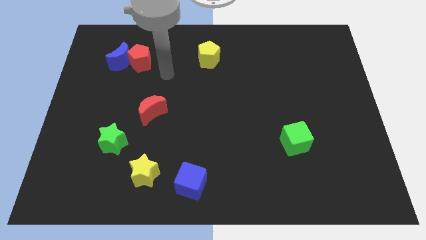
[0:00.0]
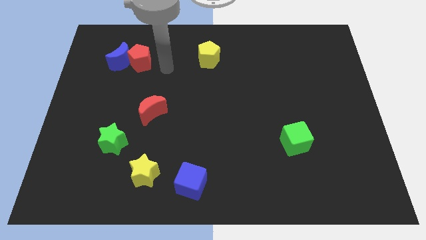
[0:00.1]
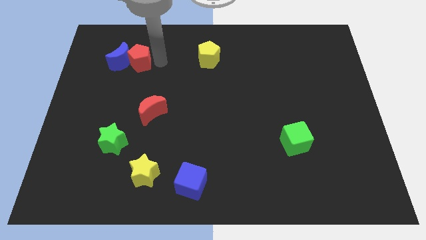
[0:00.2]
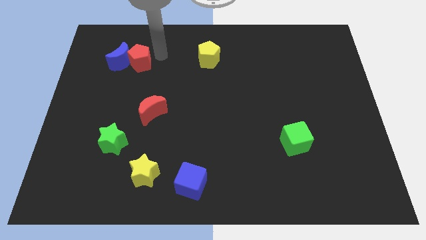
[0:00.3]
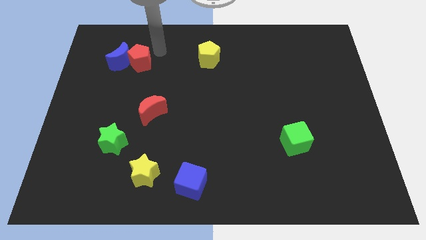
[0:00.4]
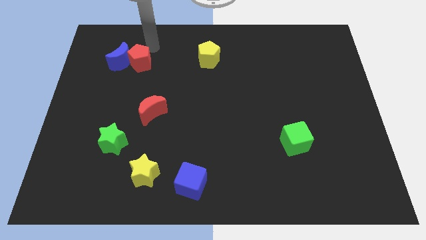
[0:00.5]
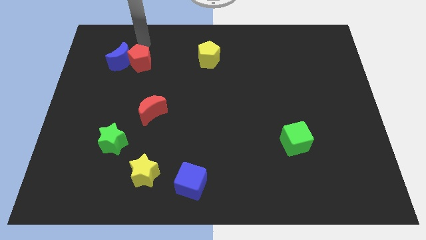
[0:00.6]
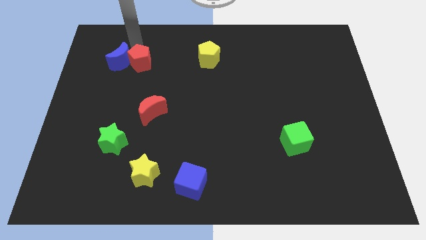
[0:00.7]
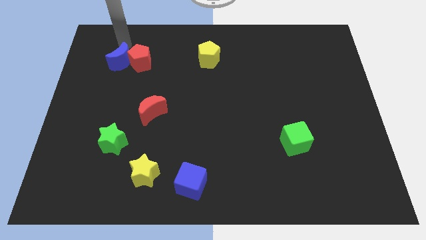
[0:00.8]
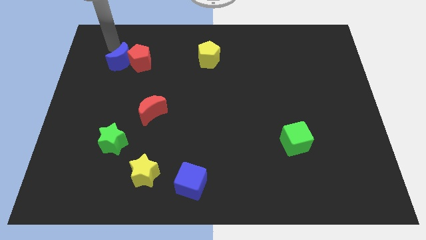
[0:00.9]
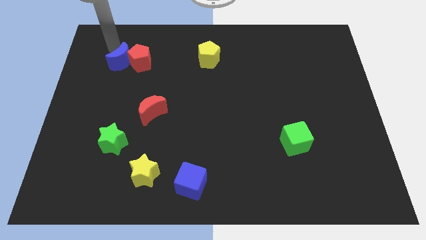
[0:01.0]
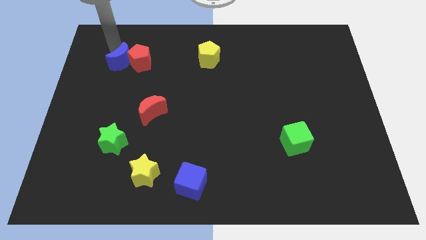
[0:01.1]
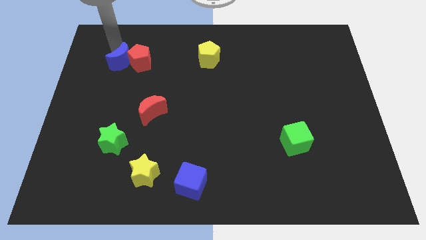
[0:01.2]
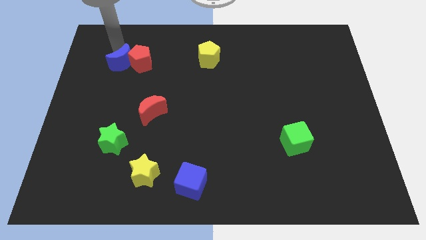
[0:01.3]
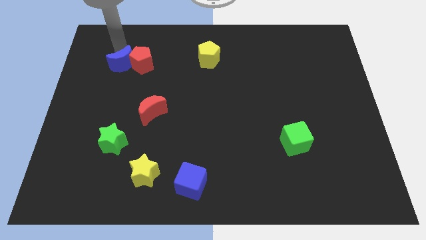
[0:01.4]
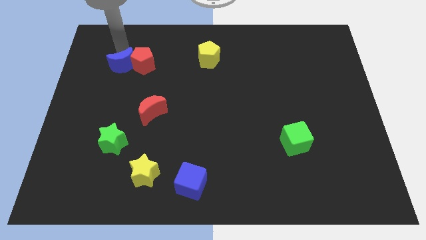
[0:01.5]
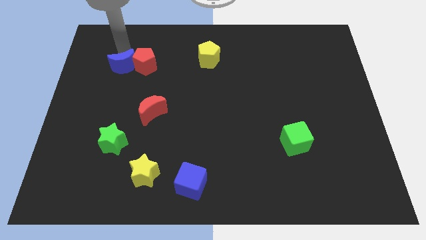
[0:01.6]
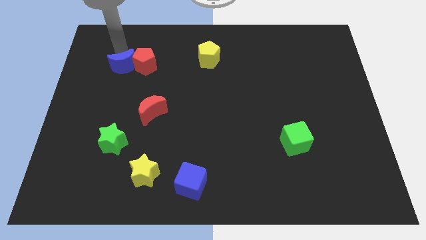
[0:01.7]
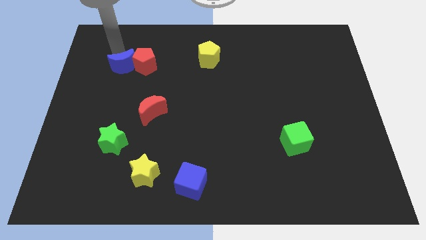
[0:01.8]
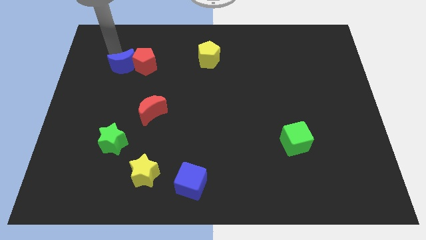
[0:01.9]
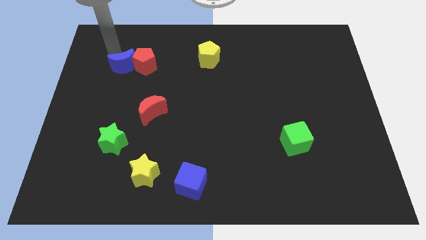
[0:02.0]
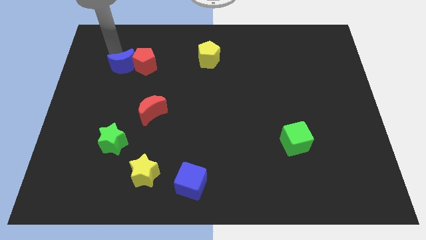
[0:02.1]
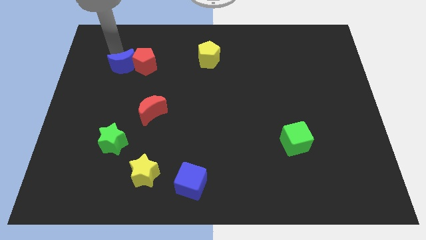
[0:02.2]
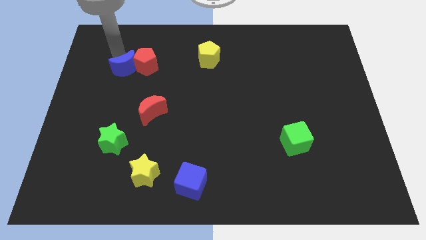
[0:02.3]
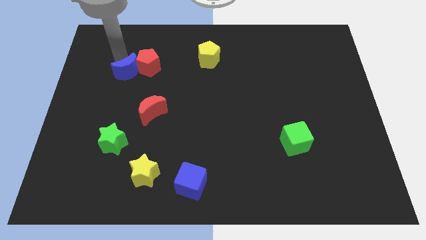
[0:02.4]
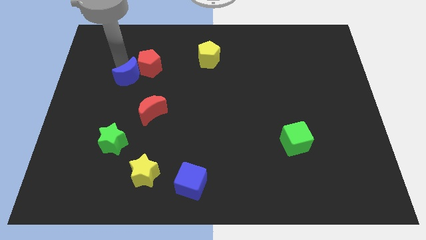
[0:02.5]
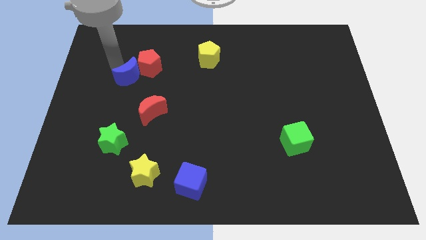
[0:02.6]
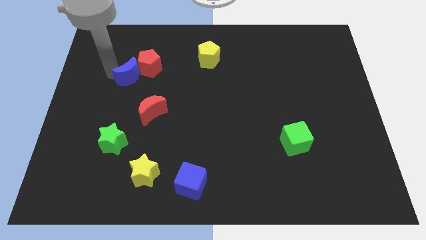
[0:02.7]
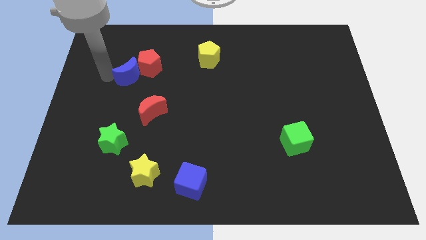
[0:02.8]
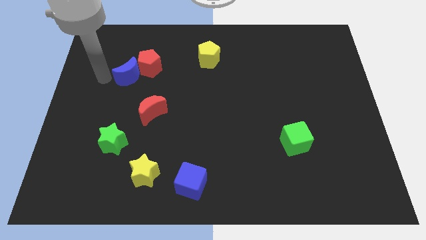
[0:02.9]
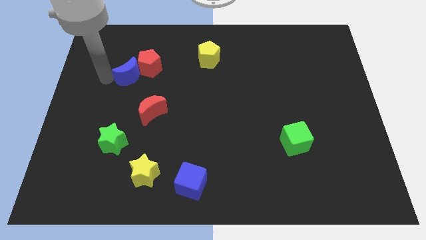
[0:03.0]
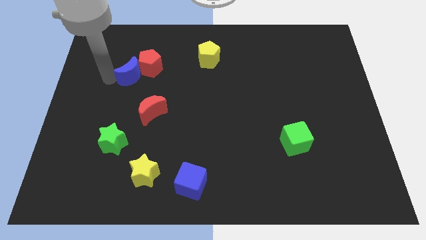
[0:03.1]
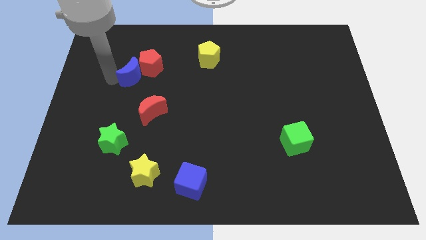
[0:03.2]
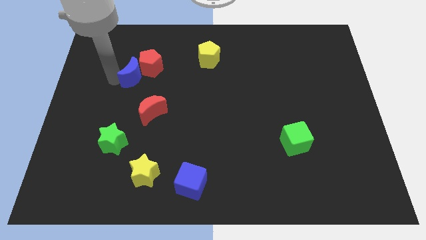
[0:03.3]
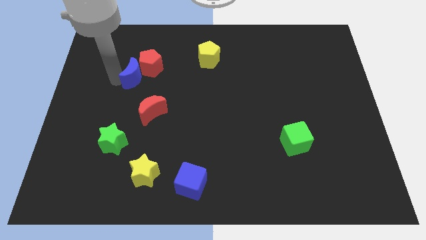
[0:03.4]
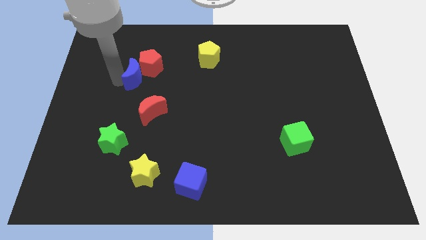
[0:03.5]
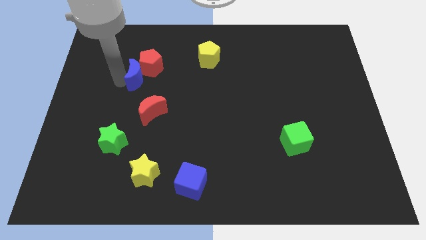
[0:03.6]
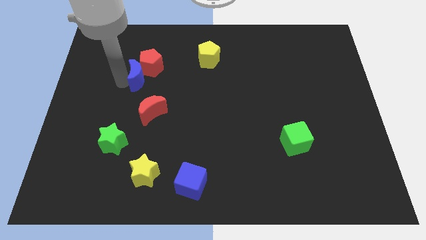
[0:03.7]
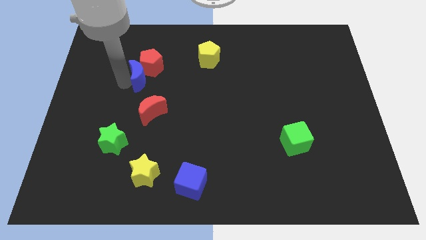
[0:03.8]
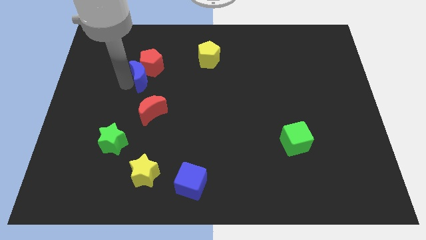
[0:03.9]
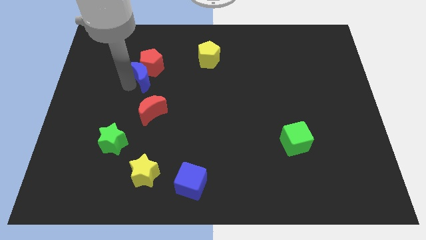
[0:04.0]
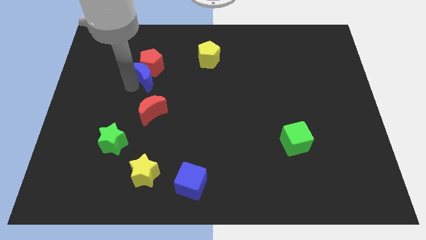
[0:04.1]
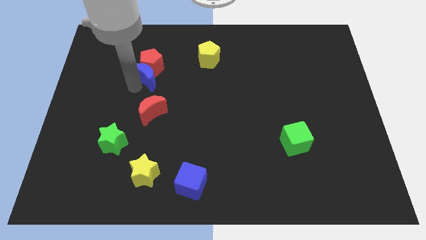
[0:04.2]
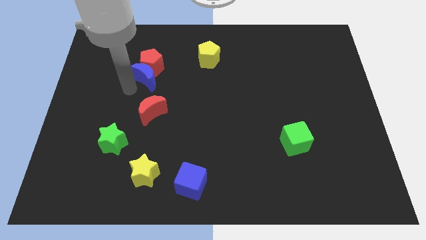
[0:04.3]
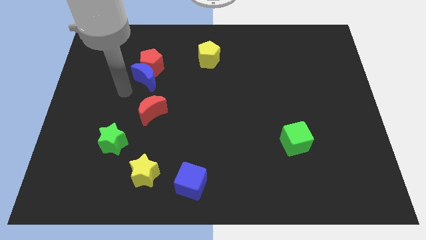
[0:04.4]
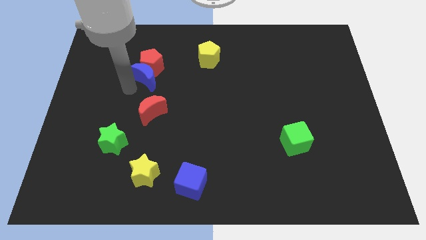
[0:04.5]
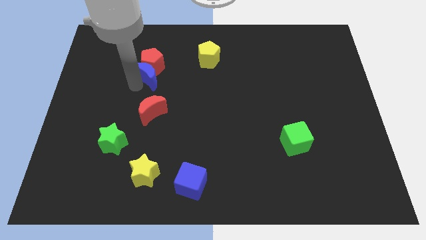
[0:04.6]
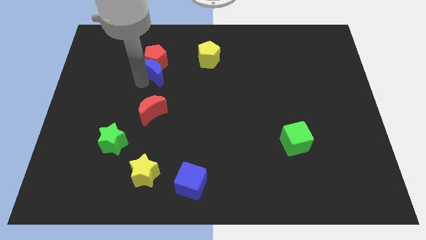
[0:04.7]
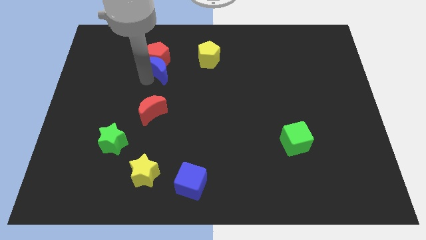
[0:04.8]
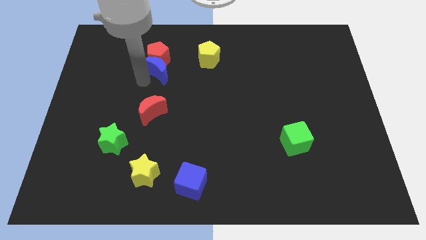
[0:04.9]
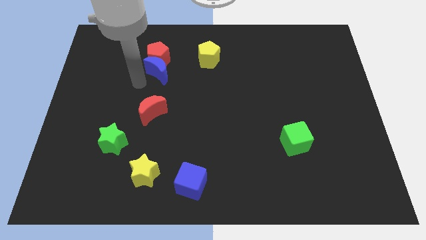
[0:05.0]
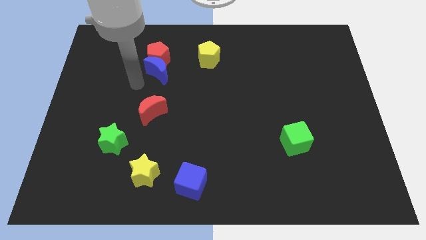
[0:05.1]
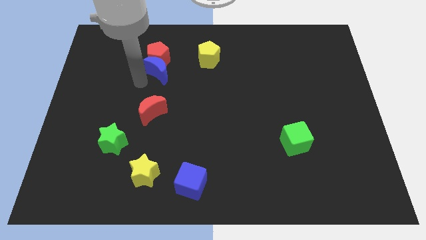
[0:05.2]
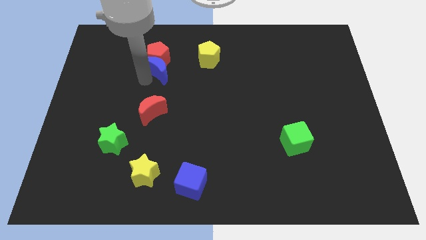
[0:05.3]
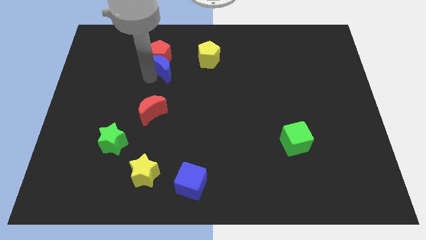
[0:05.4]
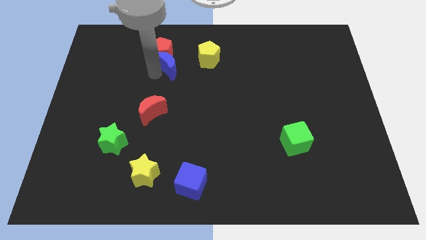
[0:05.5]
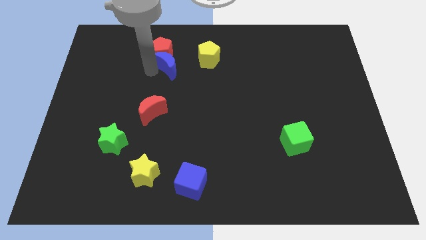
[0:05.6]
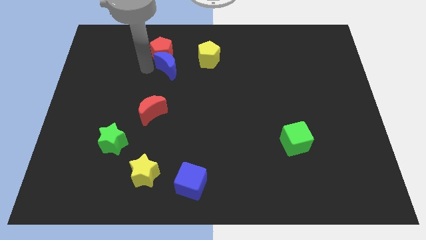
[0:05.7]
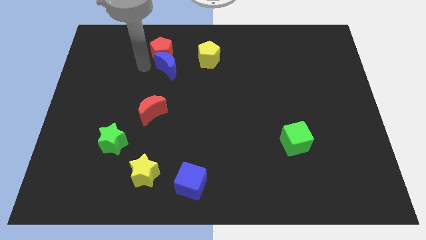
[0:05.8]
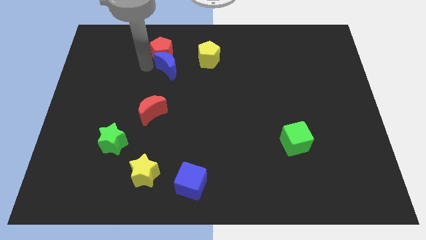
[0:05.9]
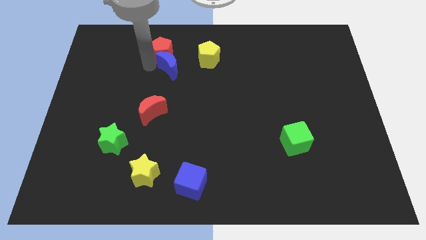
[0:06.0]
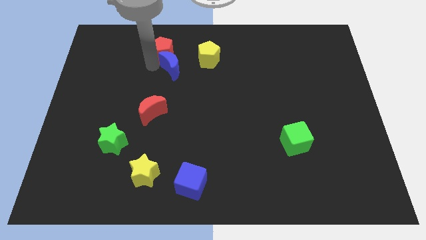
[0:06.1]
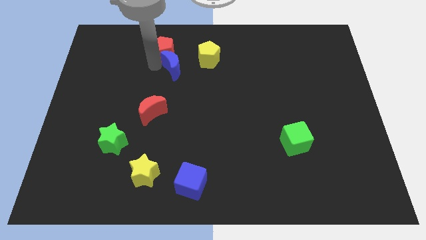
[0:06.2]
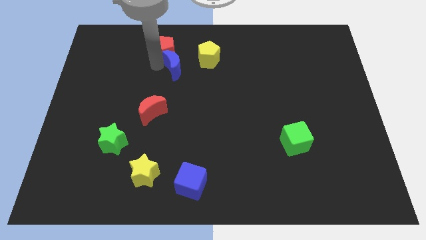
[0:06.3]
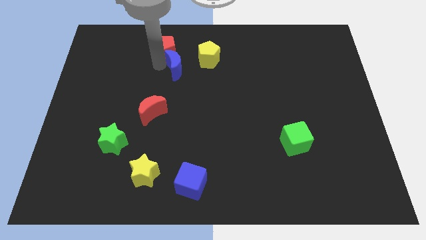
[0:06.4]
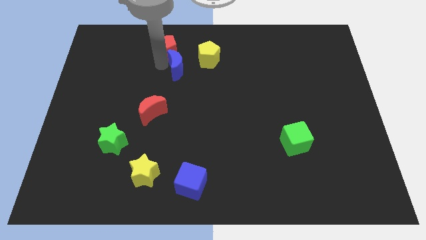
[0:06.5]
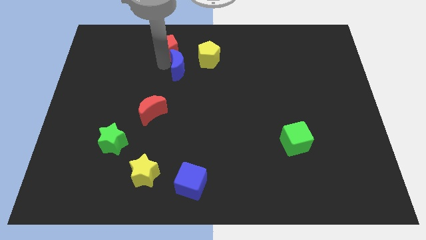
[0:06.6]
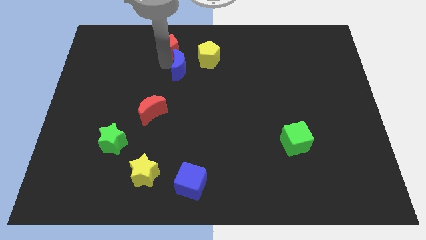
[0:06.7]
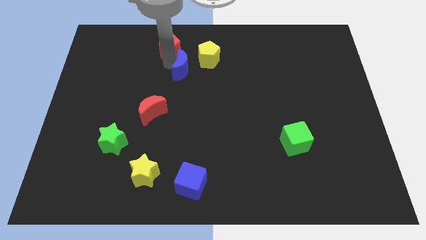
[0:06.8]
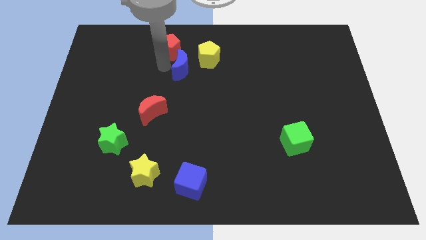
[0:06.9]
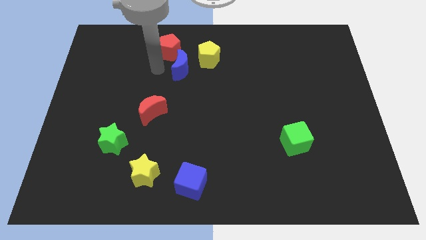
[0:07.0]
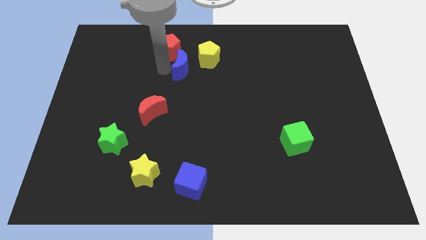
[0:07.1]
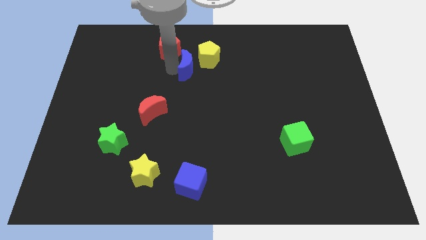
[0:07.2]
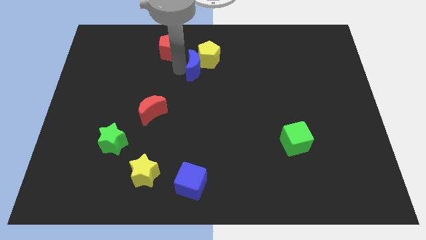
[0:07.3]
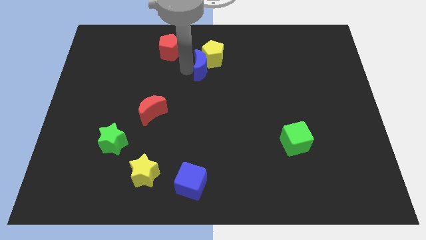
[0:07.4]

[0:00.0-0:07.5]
move the blue moon to the right
